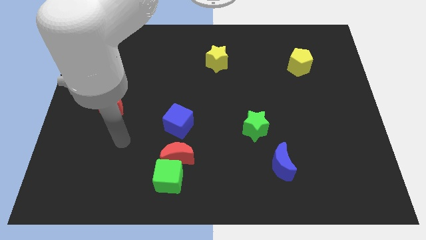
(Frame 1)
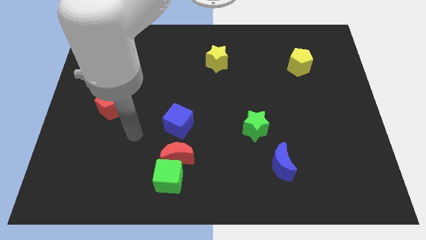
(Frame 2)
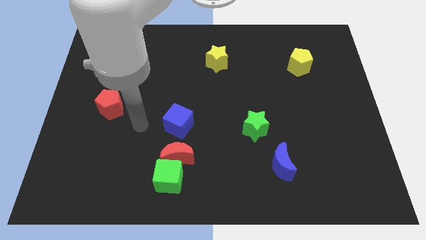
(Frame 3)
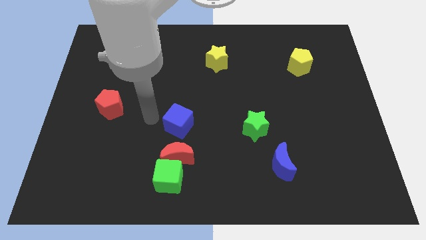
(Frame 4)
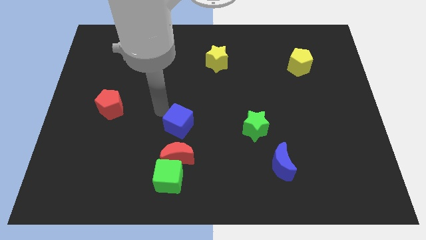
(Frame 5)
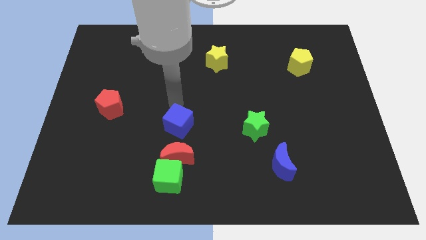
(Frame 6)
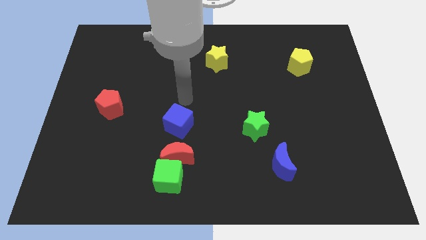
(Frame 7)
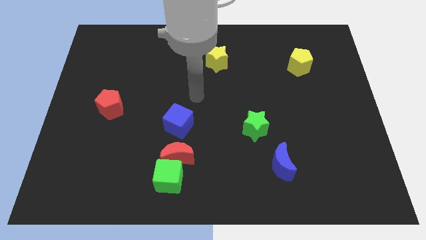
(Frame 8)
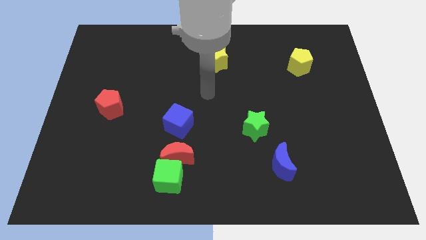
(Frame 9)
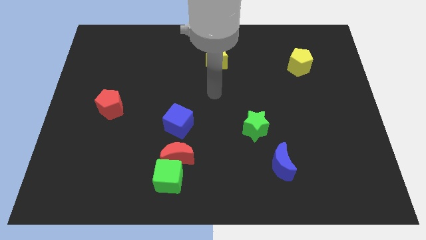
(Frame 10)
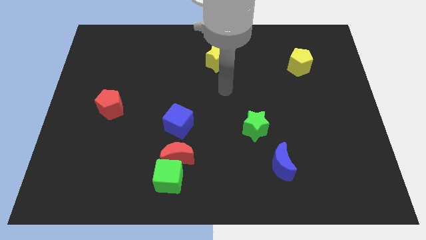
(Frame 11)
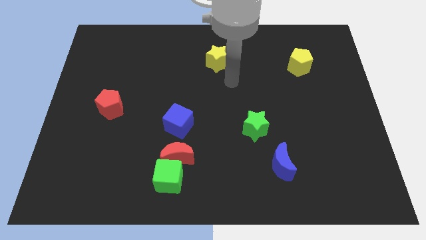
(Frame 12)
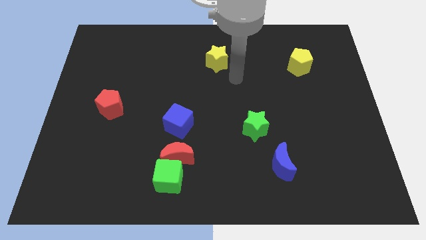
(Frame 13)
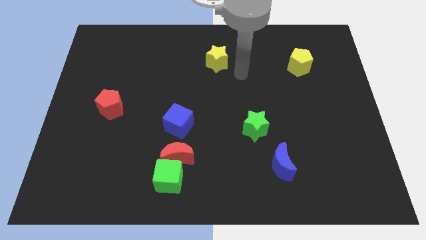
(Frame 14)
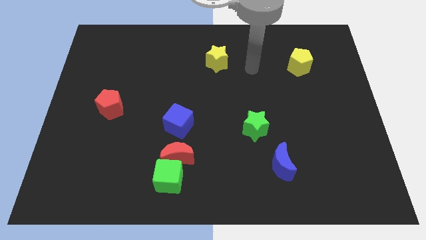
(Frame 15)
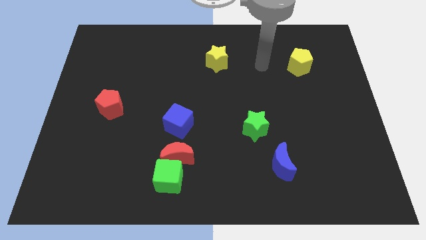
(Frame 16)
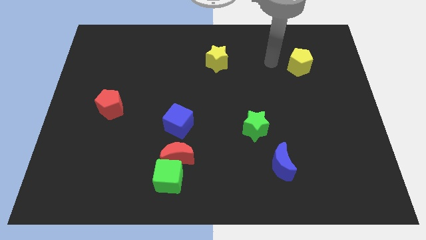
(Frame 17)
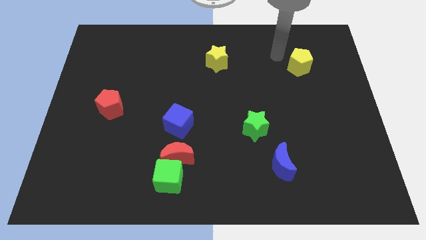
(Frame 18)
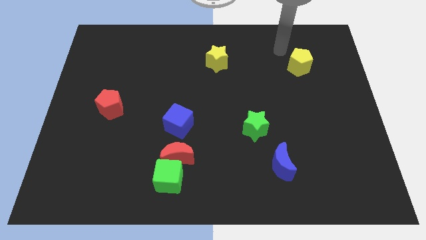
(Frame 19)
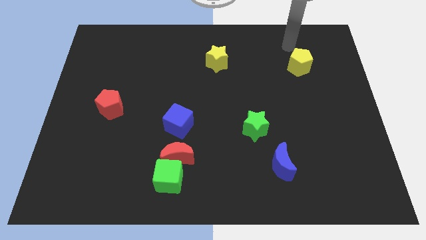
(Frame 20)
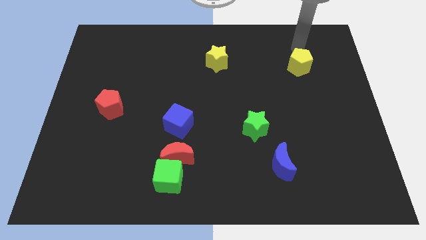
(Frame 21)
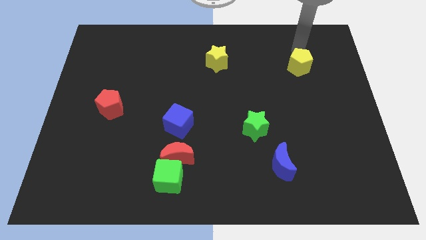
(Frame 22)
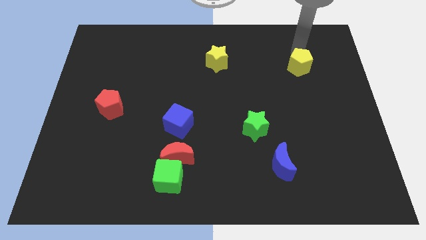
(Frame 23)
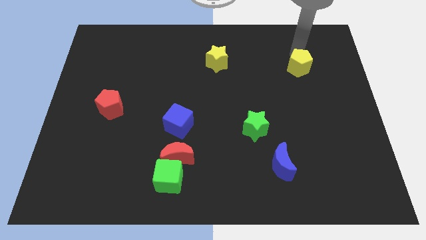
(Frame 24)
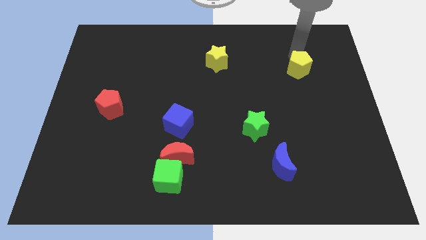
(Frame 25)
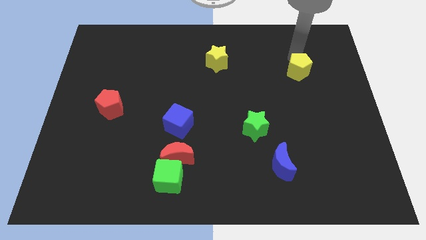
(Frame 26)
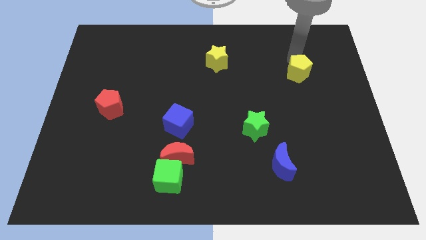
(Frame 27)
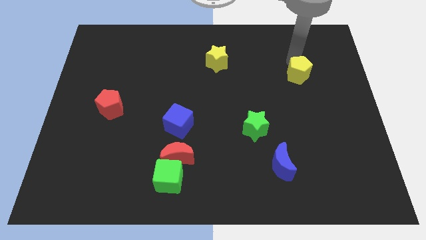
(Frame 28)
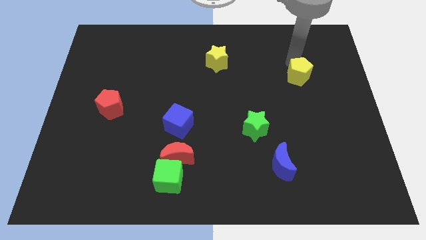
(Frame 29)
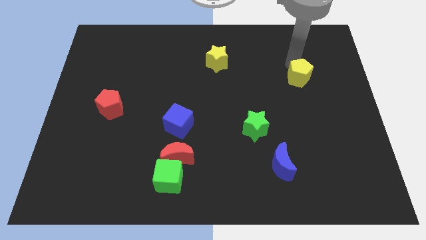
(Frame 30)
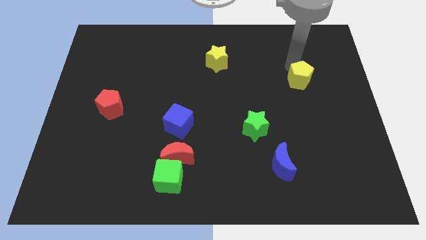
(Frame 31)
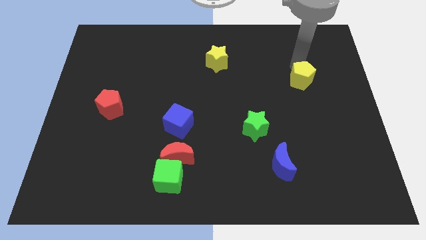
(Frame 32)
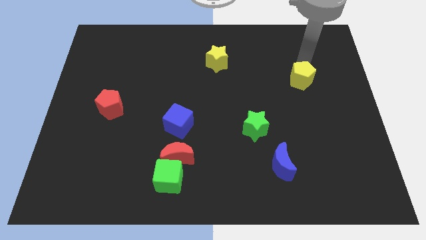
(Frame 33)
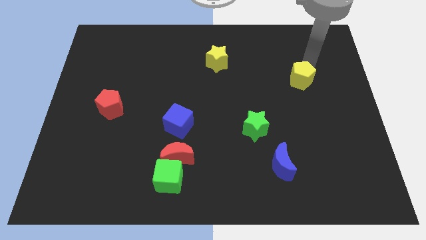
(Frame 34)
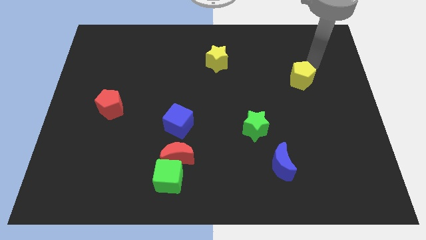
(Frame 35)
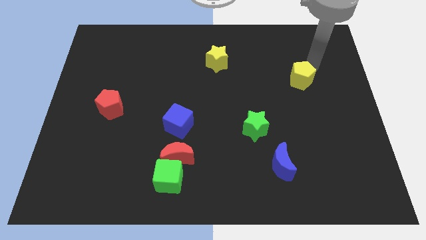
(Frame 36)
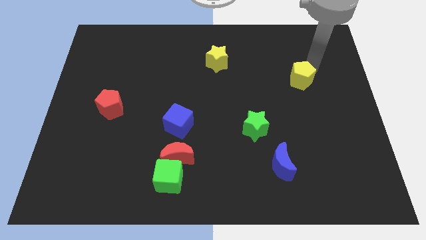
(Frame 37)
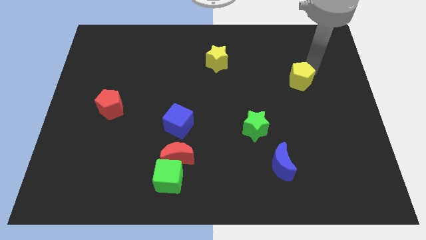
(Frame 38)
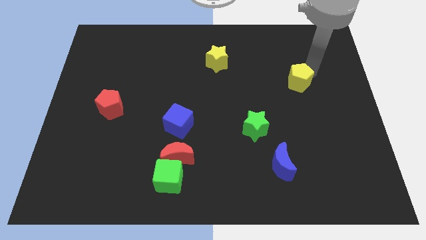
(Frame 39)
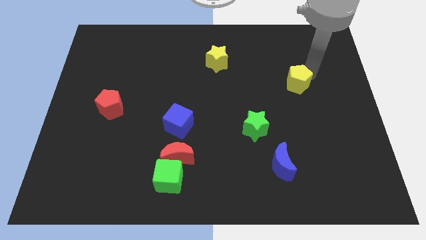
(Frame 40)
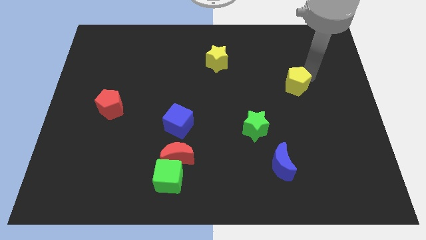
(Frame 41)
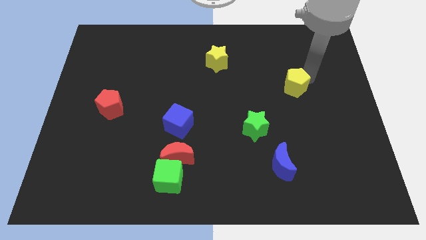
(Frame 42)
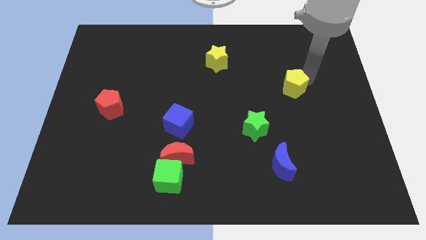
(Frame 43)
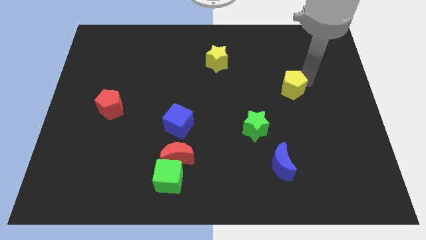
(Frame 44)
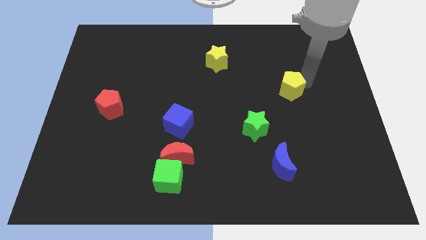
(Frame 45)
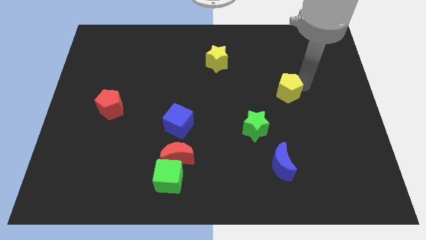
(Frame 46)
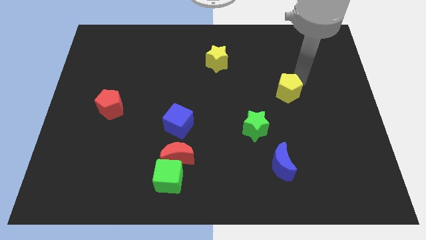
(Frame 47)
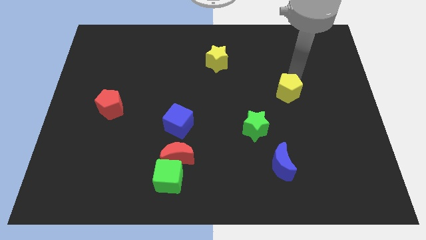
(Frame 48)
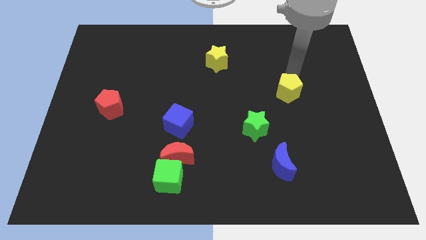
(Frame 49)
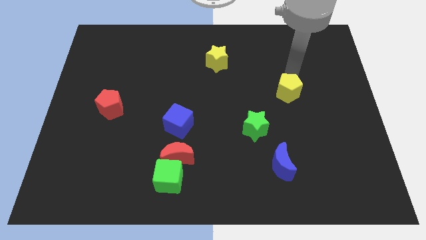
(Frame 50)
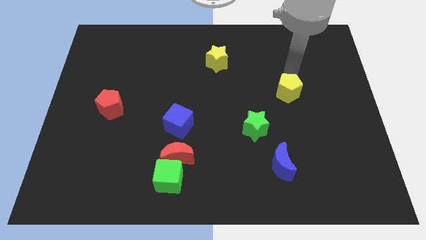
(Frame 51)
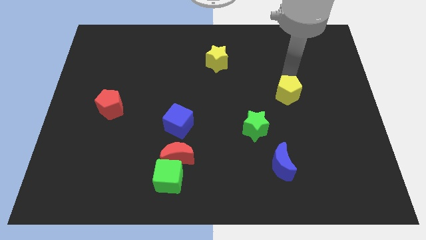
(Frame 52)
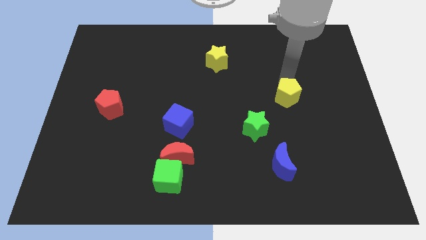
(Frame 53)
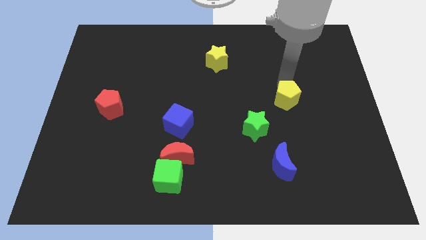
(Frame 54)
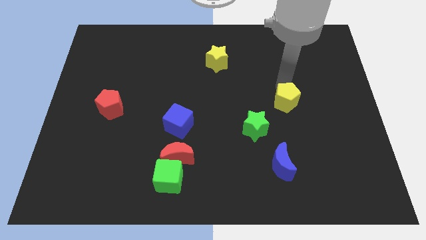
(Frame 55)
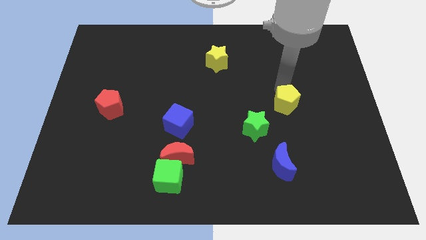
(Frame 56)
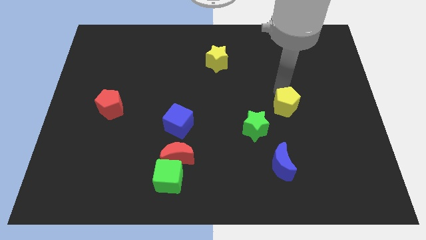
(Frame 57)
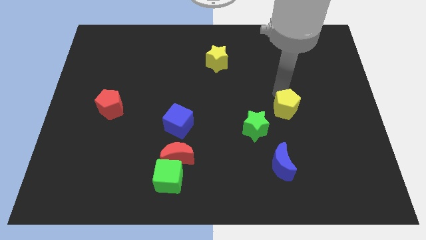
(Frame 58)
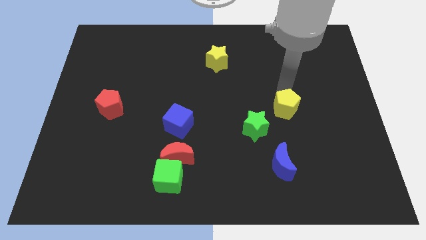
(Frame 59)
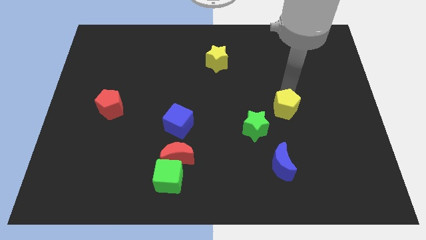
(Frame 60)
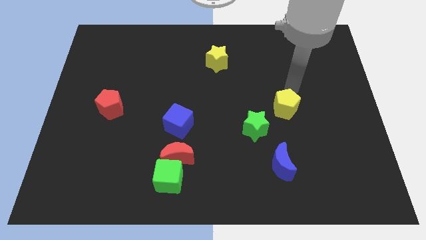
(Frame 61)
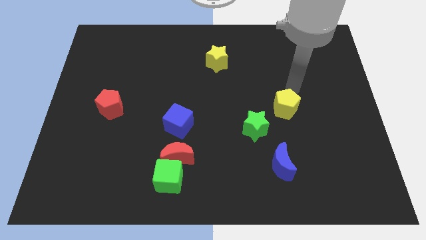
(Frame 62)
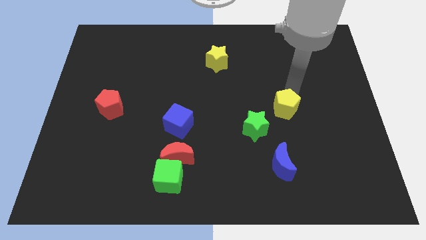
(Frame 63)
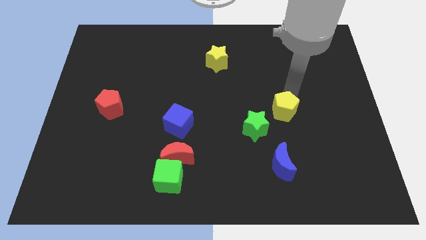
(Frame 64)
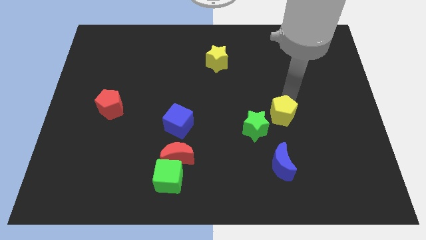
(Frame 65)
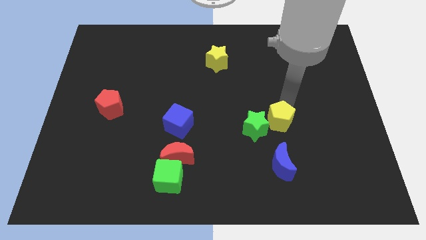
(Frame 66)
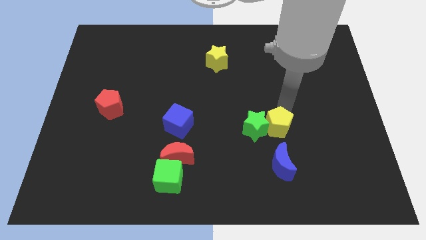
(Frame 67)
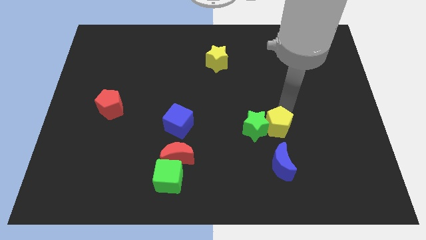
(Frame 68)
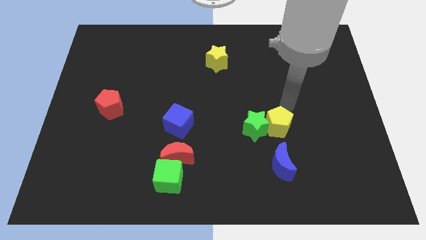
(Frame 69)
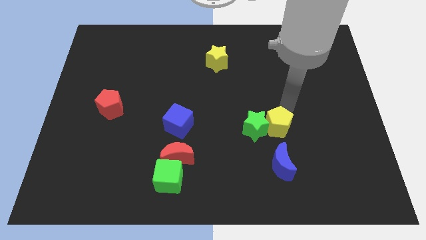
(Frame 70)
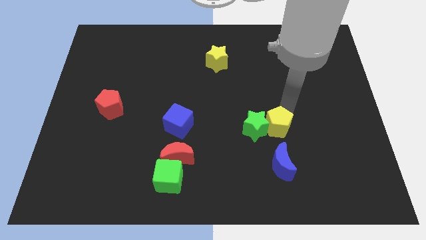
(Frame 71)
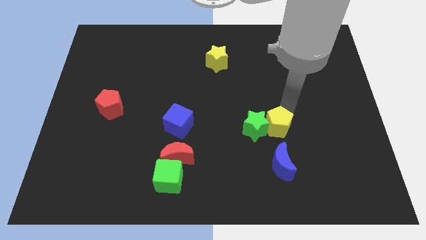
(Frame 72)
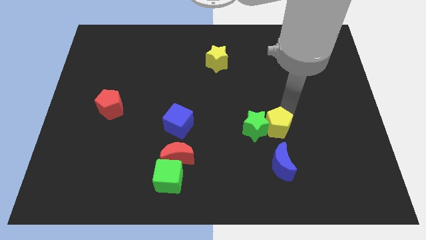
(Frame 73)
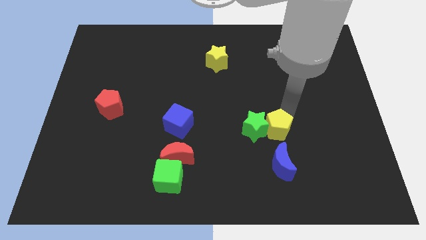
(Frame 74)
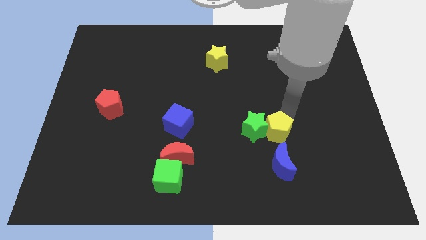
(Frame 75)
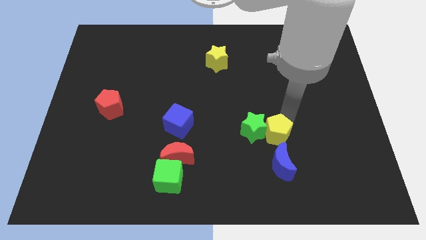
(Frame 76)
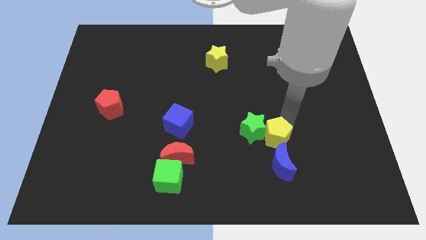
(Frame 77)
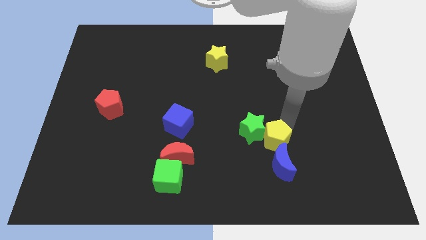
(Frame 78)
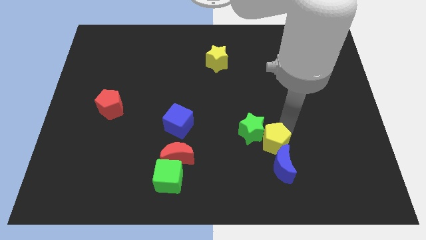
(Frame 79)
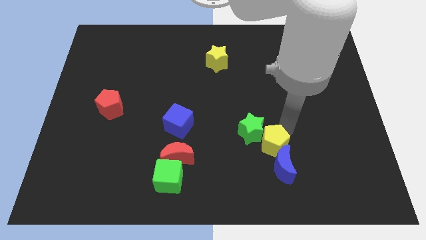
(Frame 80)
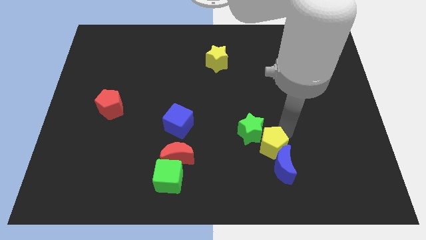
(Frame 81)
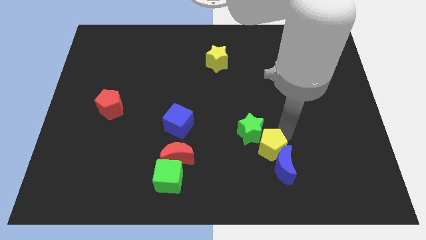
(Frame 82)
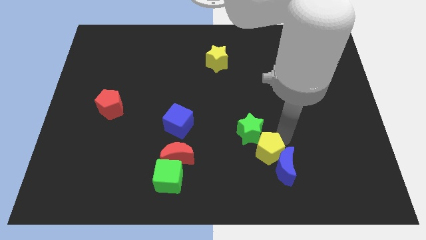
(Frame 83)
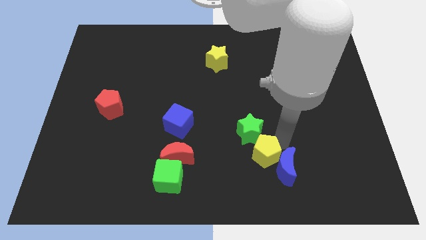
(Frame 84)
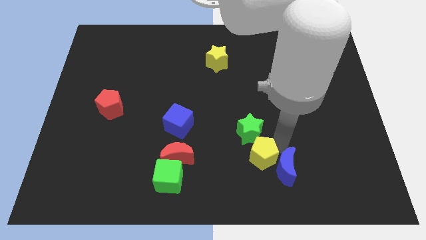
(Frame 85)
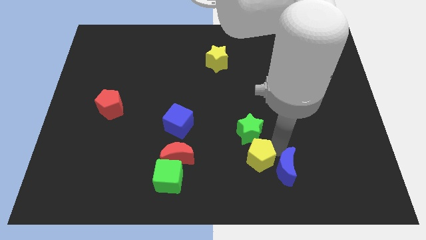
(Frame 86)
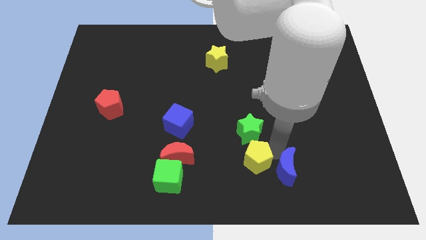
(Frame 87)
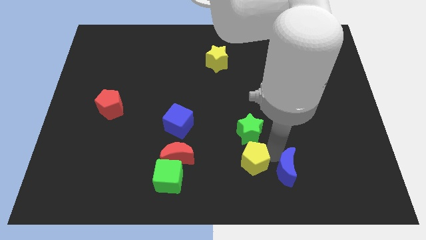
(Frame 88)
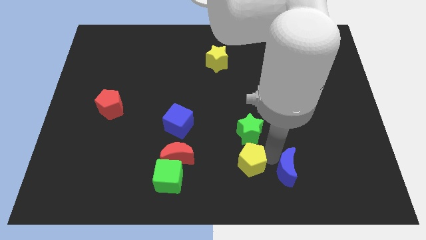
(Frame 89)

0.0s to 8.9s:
put the yellow pentagon to the bottom side
